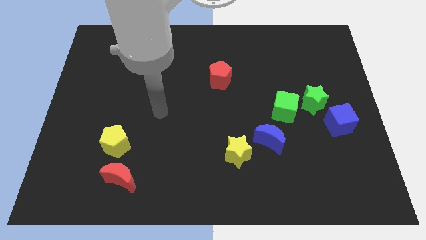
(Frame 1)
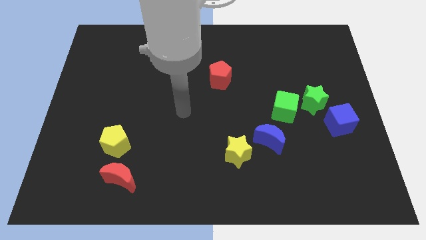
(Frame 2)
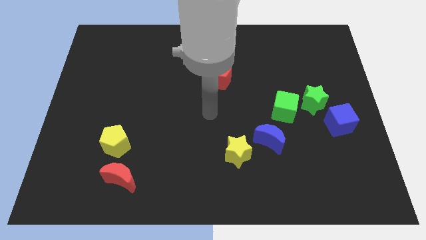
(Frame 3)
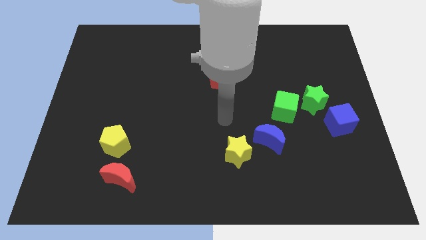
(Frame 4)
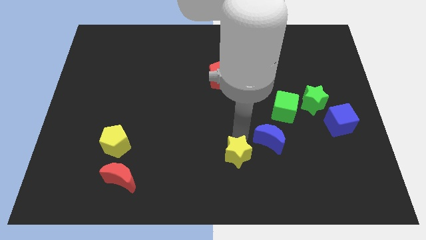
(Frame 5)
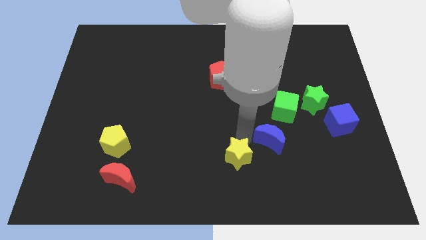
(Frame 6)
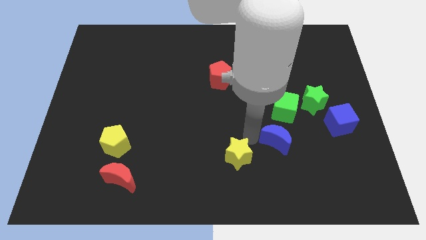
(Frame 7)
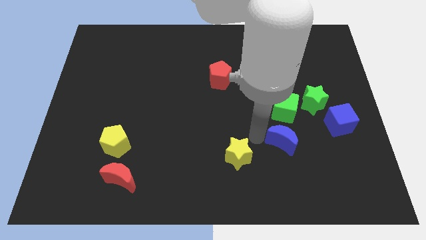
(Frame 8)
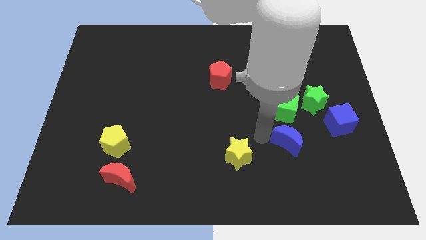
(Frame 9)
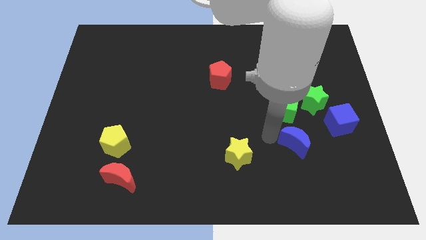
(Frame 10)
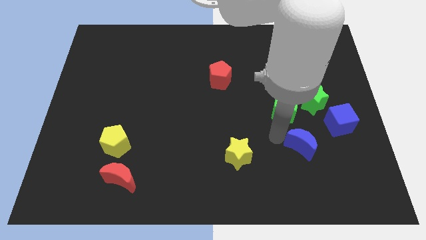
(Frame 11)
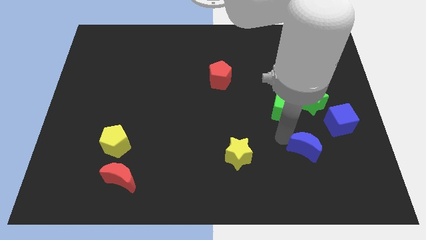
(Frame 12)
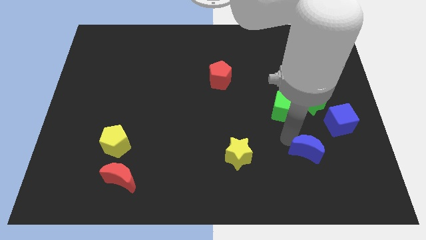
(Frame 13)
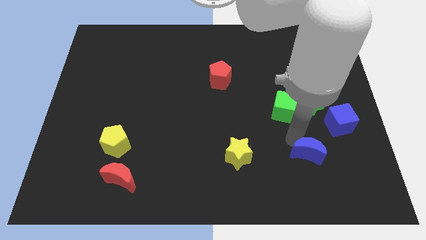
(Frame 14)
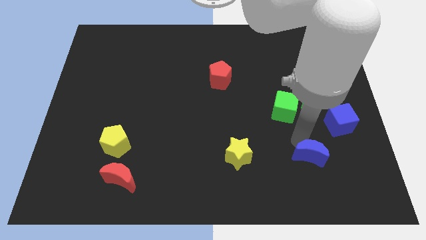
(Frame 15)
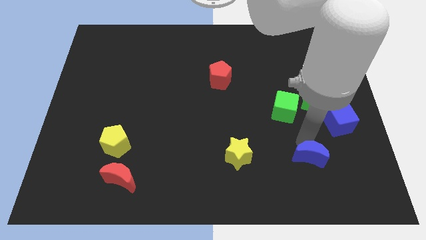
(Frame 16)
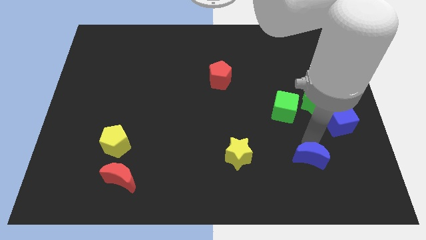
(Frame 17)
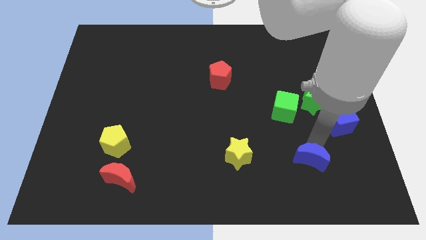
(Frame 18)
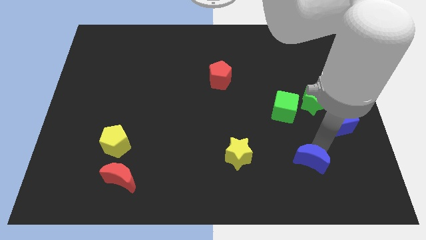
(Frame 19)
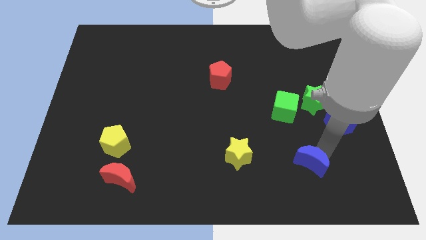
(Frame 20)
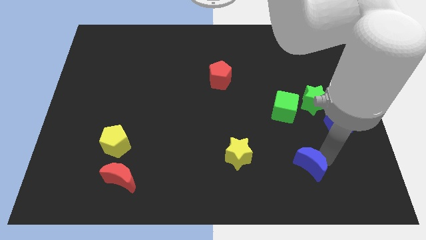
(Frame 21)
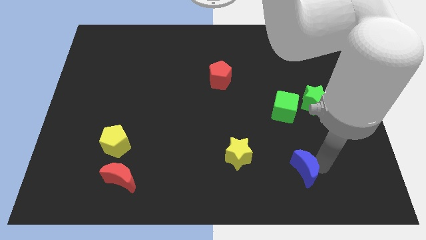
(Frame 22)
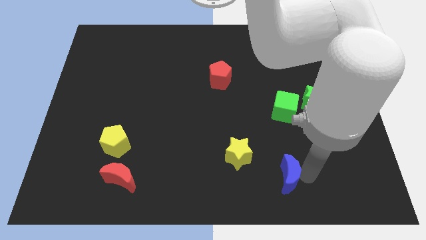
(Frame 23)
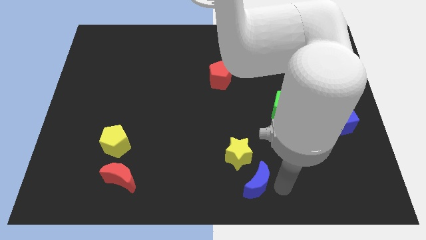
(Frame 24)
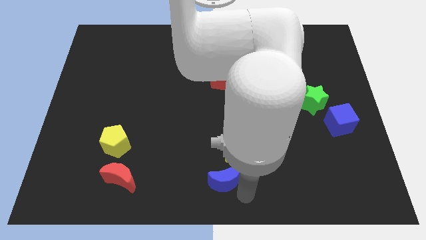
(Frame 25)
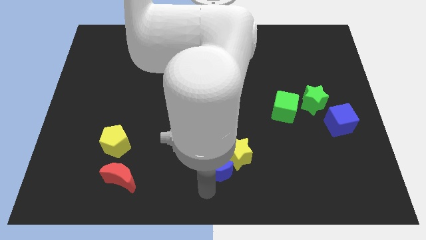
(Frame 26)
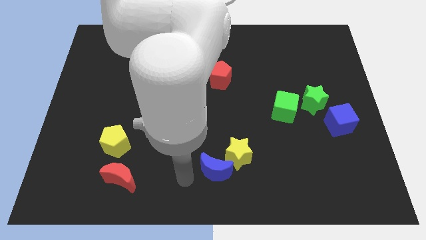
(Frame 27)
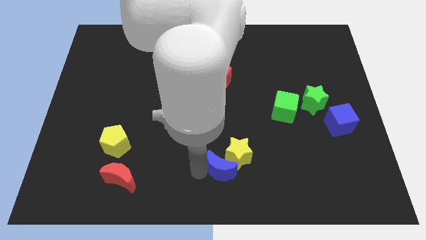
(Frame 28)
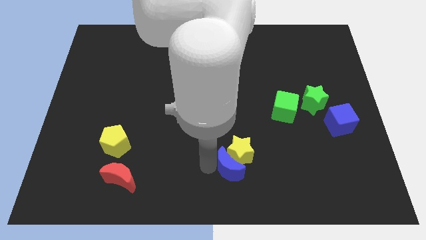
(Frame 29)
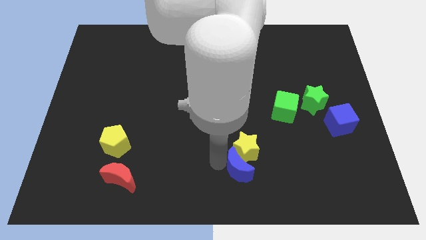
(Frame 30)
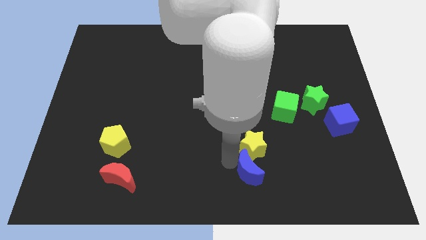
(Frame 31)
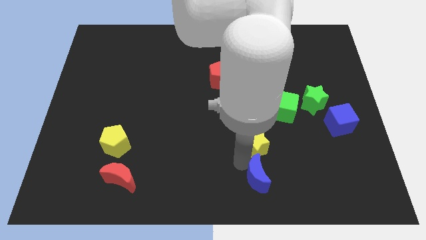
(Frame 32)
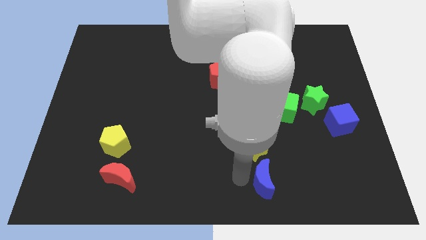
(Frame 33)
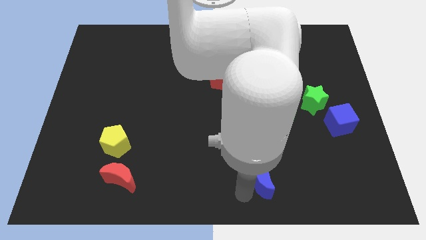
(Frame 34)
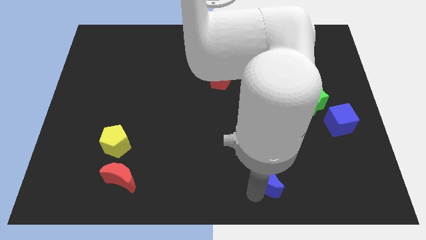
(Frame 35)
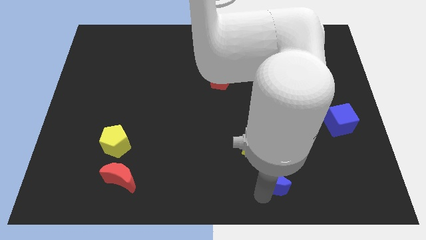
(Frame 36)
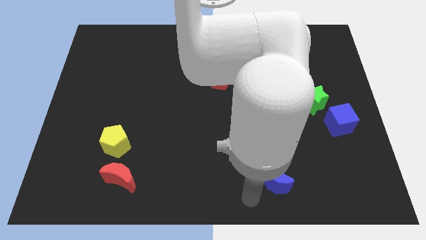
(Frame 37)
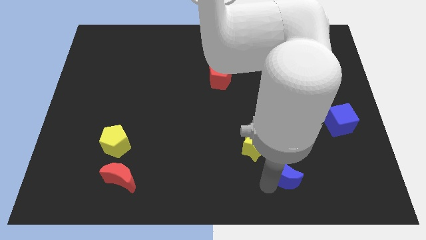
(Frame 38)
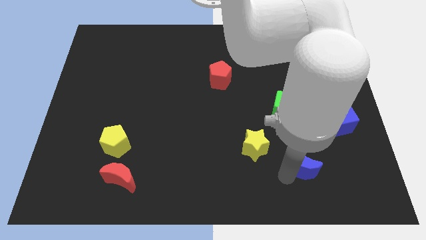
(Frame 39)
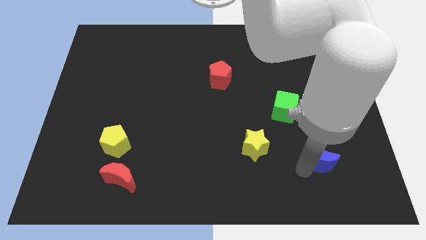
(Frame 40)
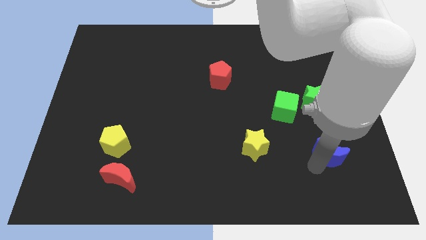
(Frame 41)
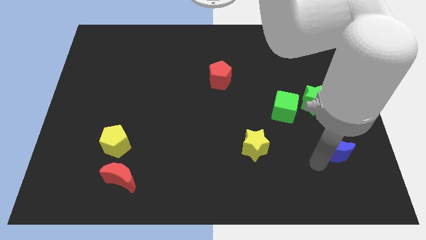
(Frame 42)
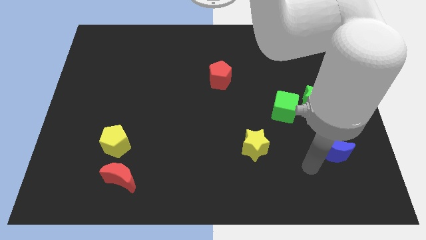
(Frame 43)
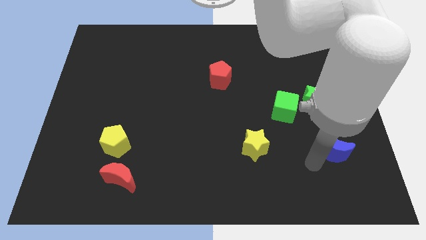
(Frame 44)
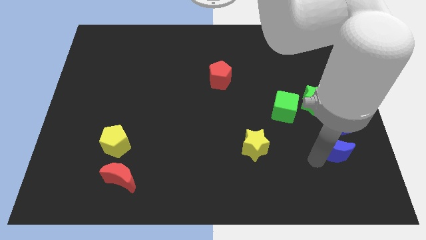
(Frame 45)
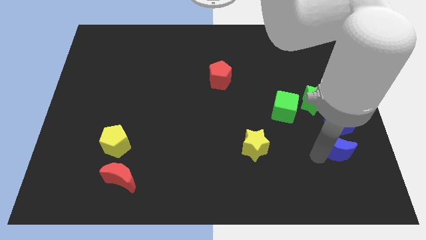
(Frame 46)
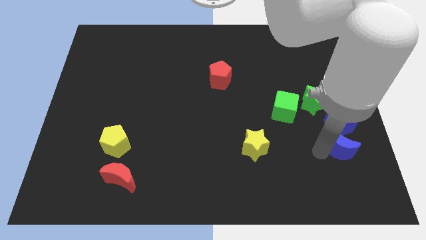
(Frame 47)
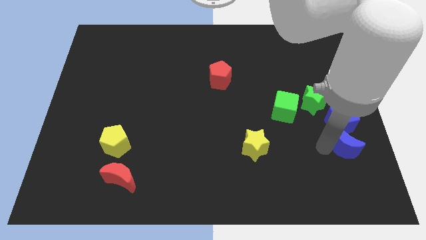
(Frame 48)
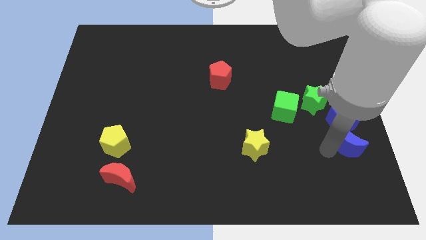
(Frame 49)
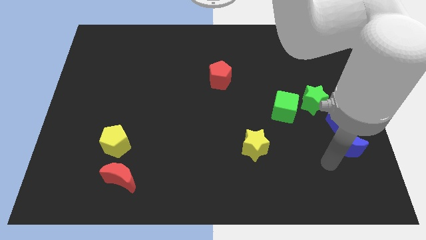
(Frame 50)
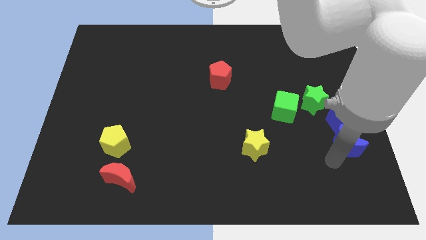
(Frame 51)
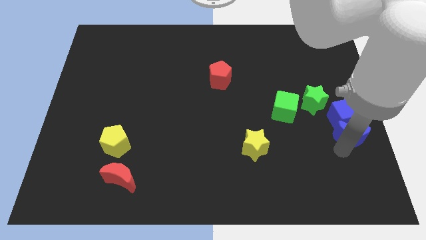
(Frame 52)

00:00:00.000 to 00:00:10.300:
push the blue moon to the right side

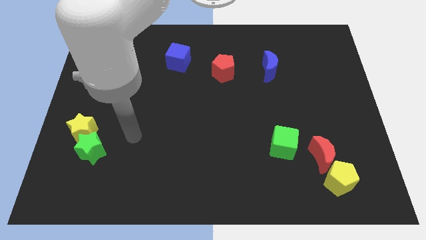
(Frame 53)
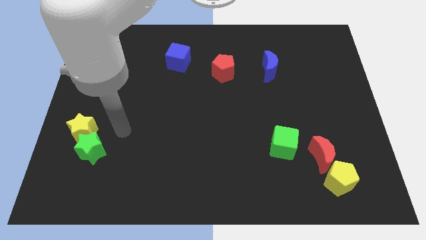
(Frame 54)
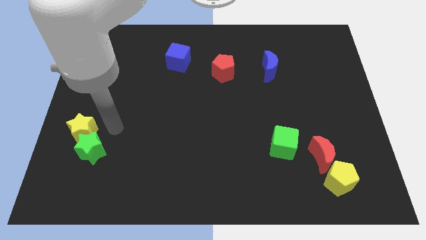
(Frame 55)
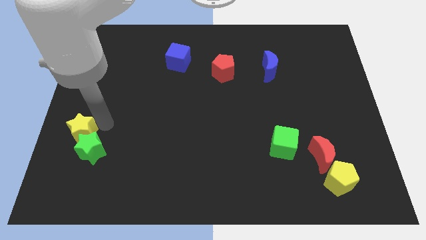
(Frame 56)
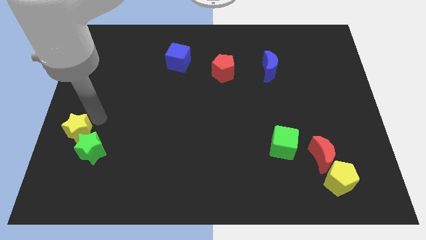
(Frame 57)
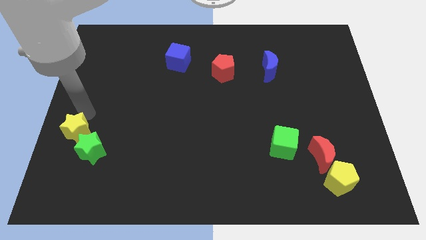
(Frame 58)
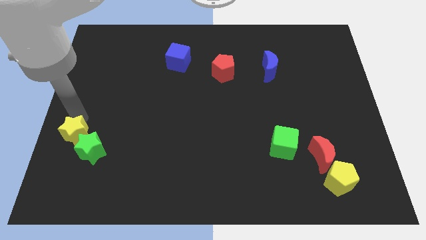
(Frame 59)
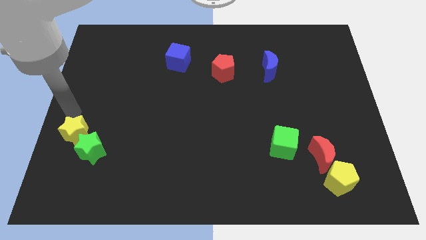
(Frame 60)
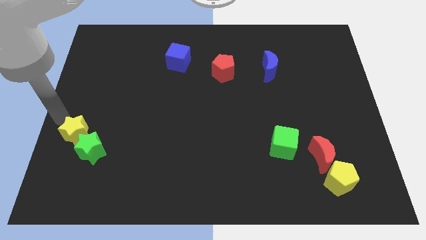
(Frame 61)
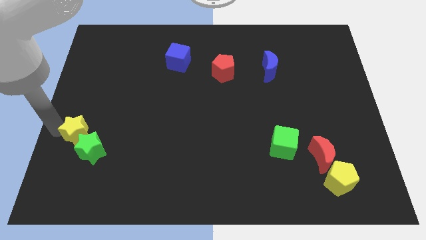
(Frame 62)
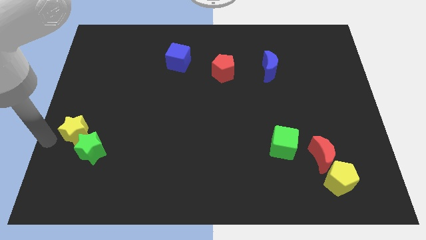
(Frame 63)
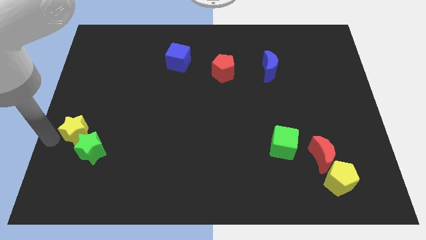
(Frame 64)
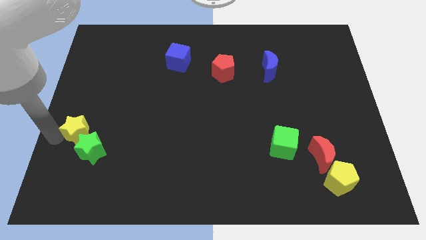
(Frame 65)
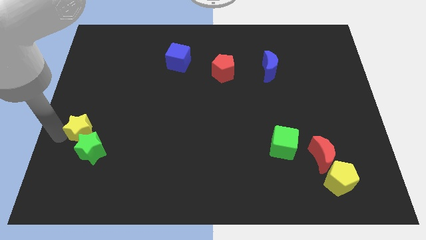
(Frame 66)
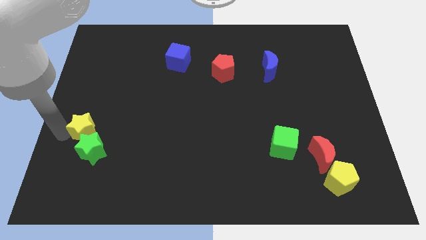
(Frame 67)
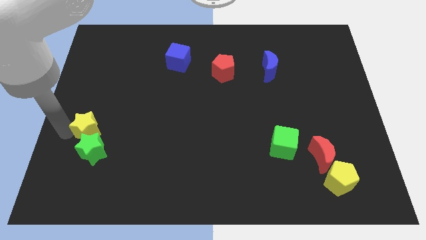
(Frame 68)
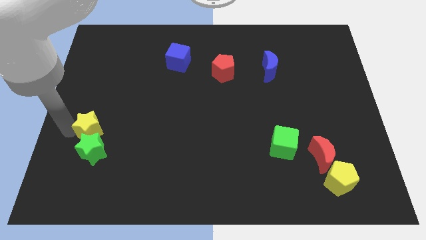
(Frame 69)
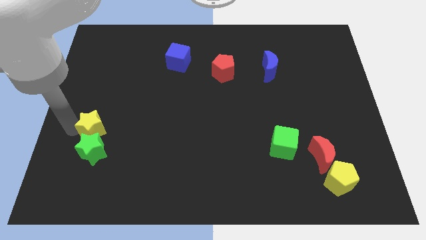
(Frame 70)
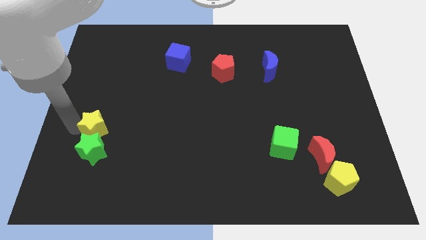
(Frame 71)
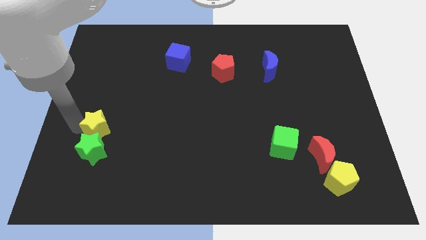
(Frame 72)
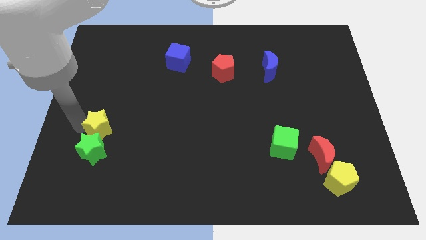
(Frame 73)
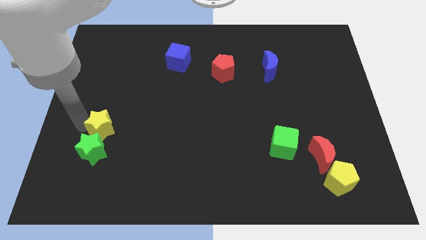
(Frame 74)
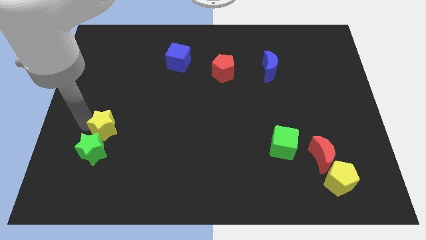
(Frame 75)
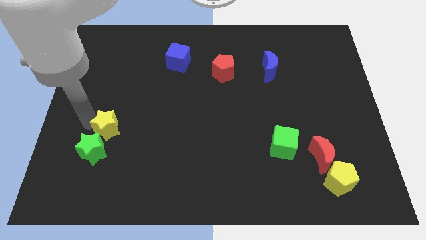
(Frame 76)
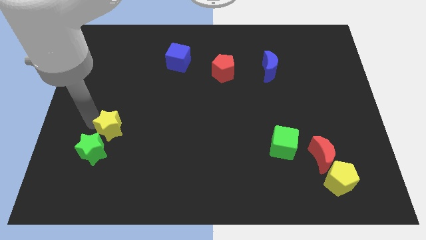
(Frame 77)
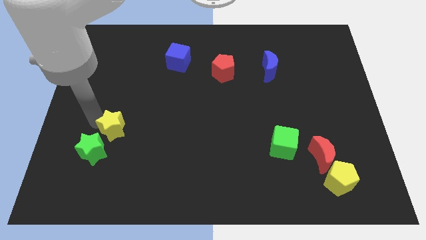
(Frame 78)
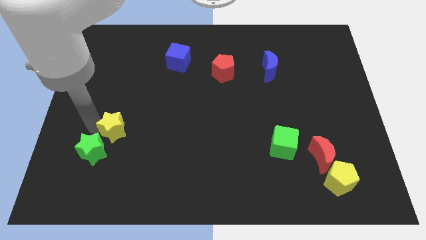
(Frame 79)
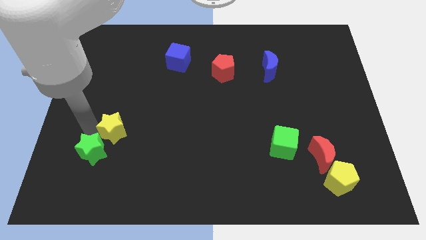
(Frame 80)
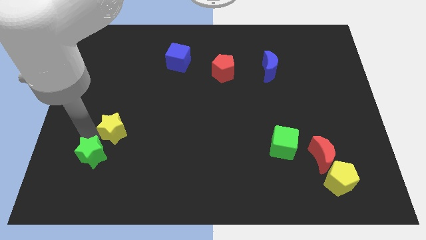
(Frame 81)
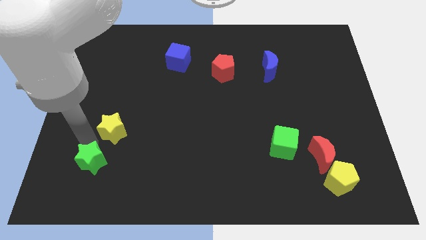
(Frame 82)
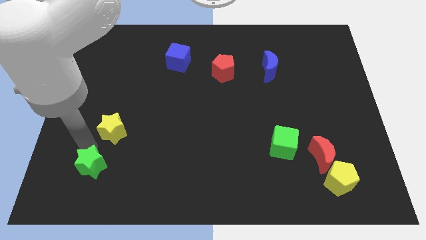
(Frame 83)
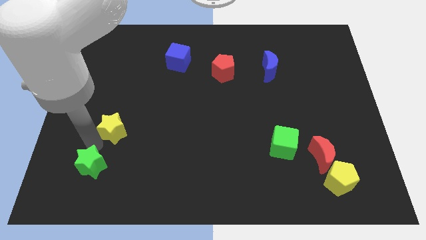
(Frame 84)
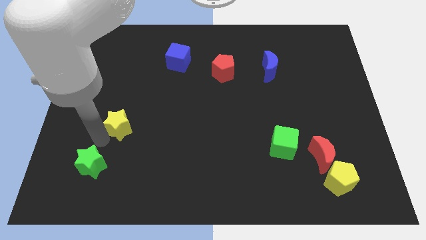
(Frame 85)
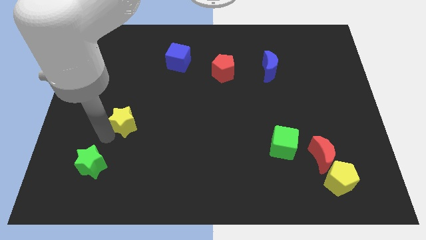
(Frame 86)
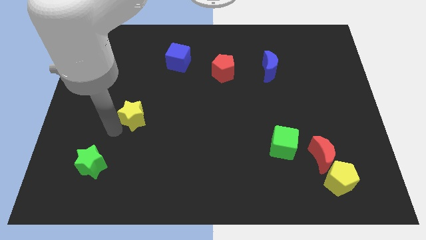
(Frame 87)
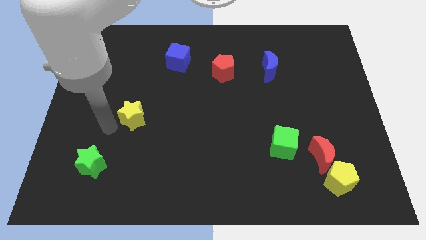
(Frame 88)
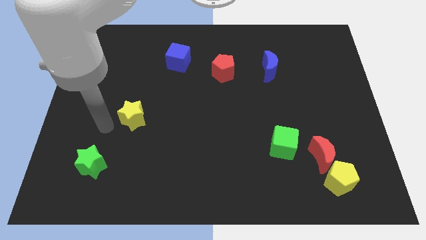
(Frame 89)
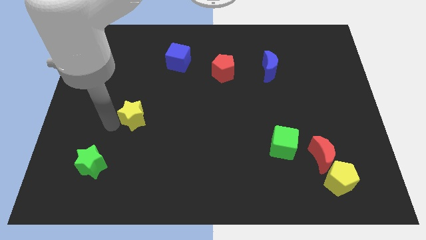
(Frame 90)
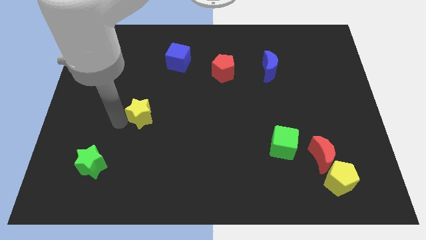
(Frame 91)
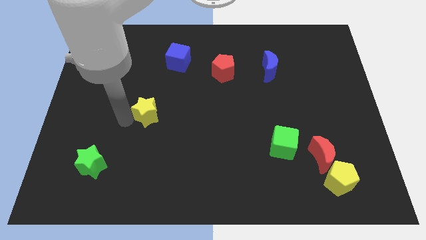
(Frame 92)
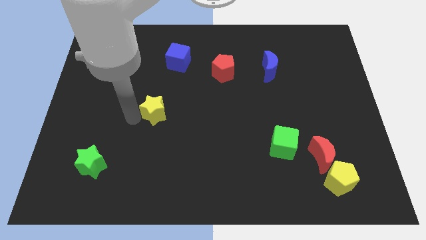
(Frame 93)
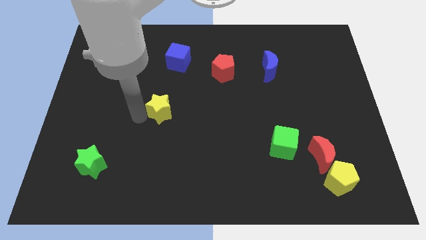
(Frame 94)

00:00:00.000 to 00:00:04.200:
push the yellow star to the center
